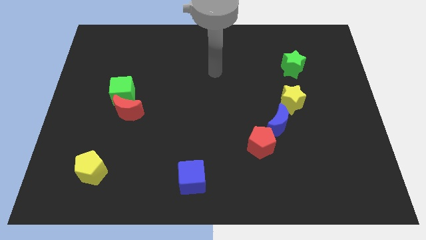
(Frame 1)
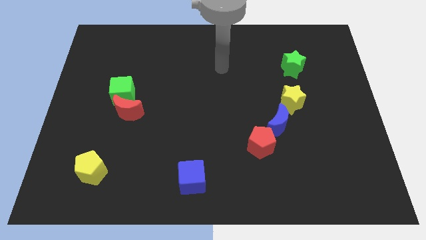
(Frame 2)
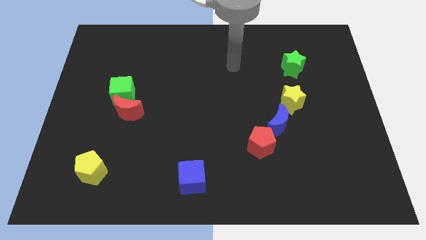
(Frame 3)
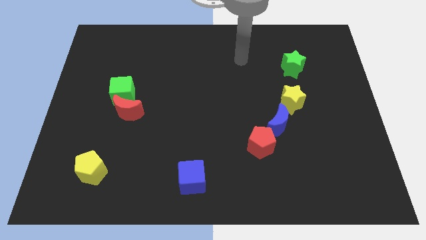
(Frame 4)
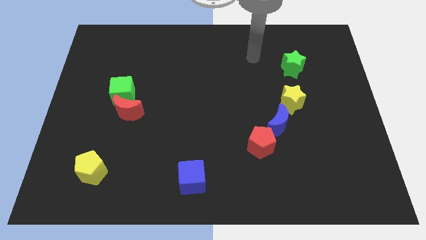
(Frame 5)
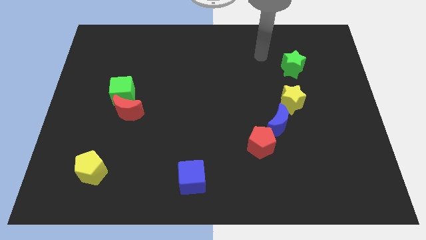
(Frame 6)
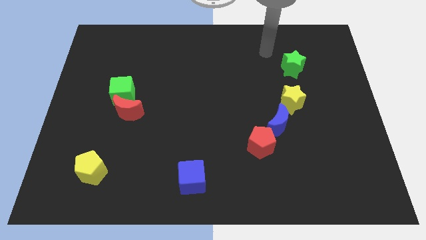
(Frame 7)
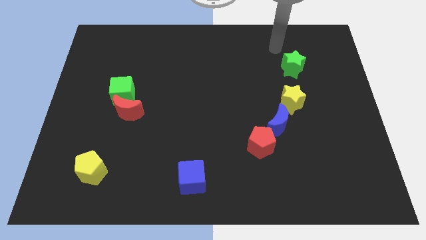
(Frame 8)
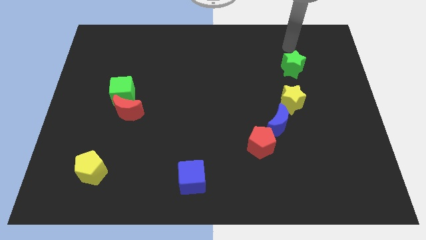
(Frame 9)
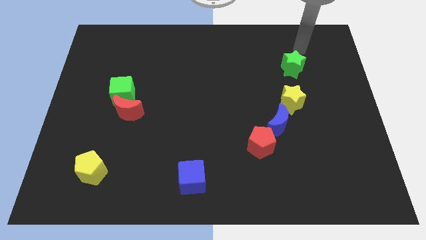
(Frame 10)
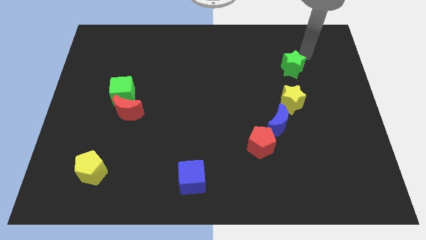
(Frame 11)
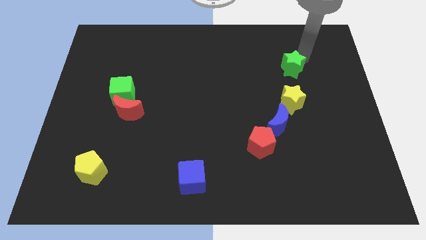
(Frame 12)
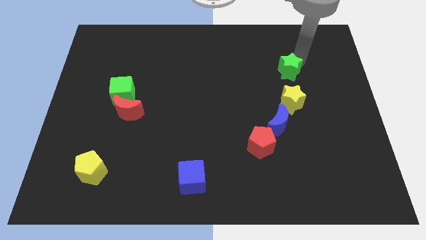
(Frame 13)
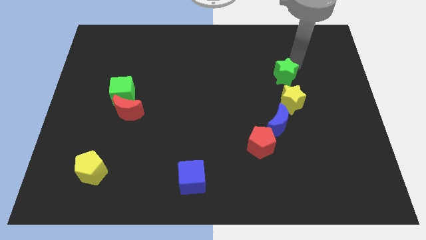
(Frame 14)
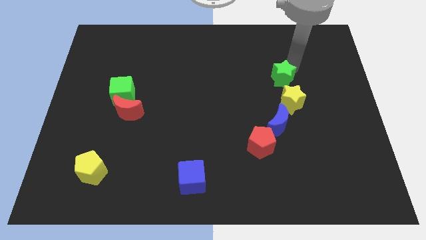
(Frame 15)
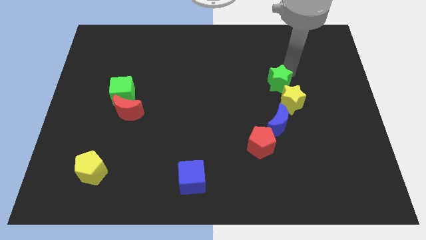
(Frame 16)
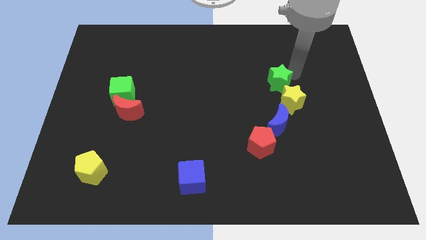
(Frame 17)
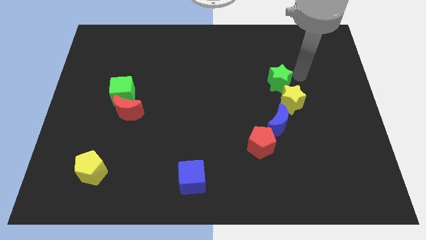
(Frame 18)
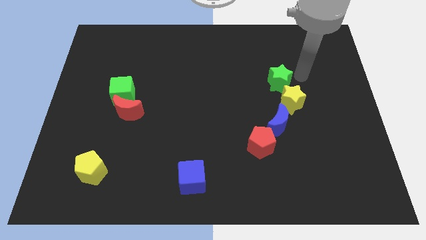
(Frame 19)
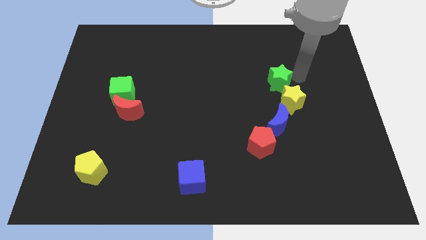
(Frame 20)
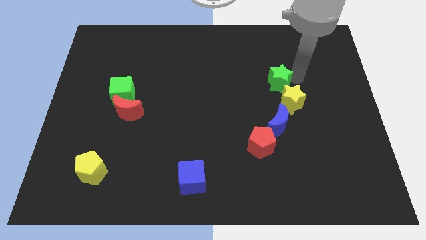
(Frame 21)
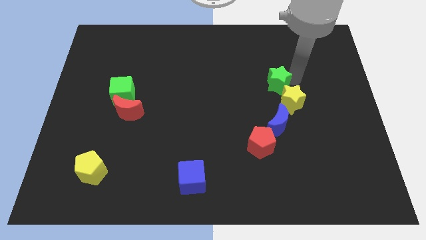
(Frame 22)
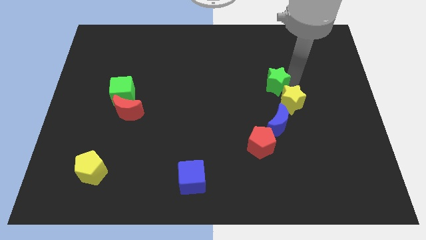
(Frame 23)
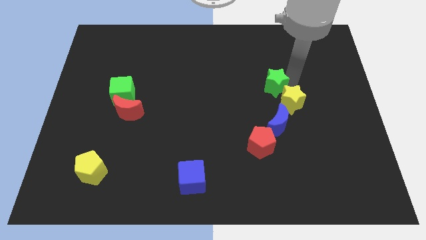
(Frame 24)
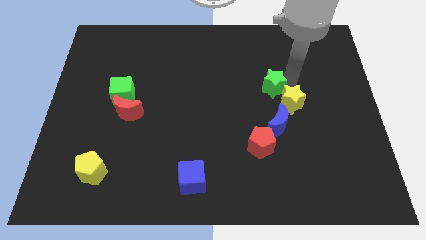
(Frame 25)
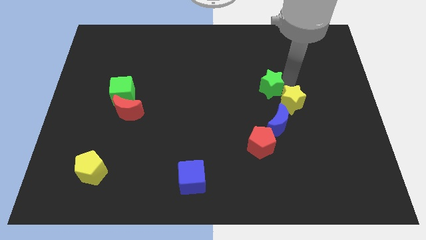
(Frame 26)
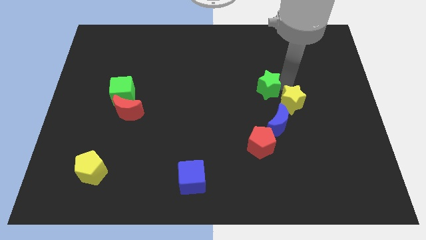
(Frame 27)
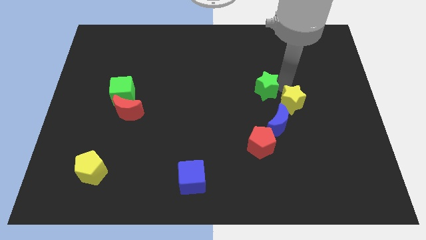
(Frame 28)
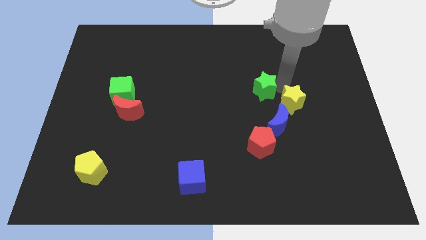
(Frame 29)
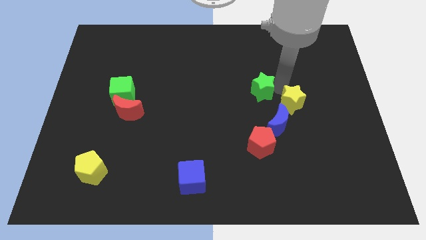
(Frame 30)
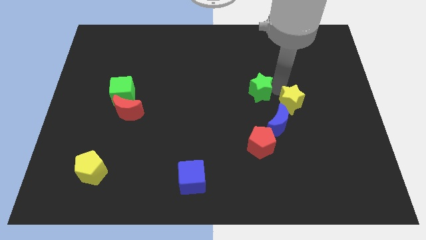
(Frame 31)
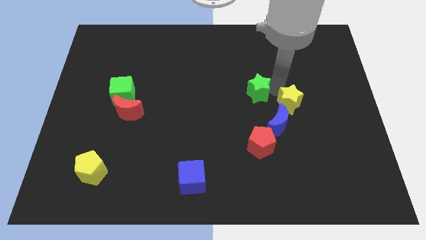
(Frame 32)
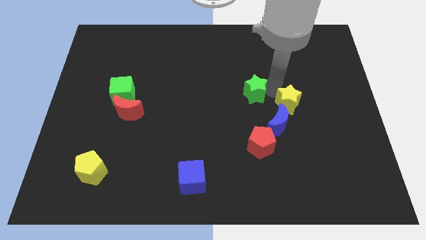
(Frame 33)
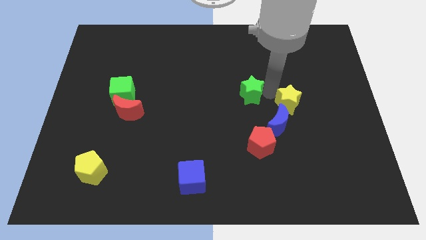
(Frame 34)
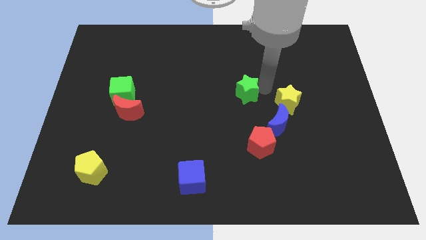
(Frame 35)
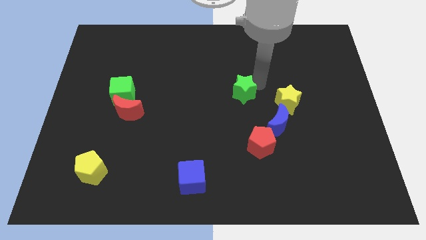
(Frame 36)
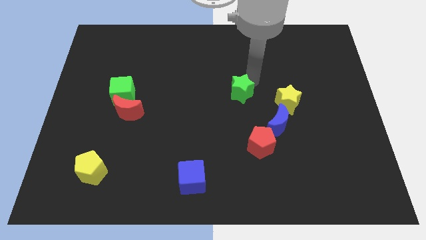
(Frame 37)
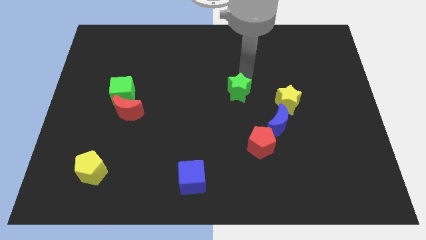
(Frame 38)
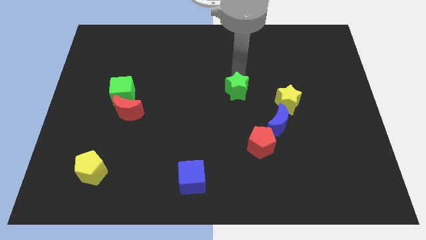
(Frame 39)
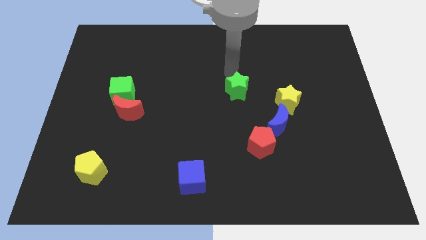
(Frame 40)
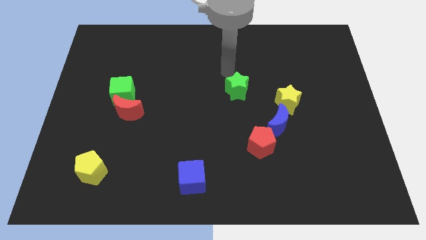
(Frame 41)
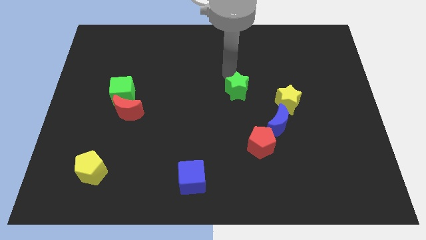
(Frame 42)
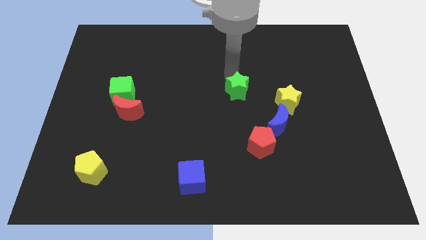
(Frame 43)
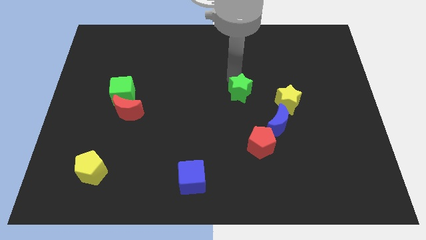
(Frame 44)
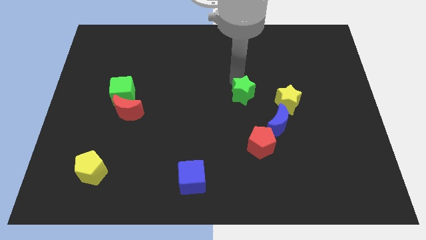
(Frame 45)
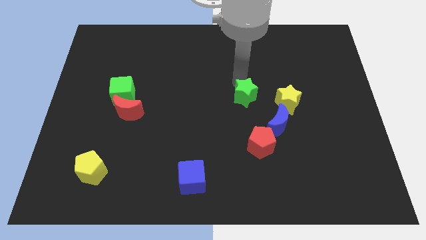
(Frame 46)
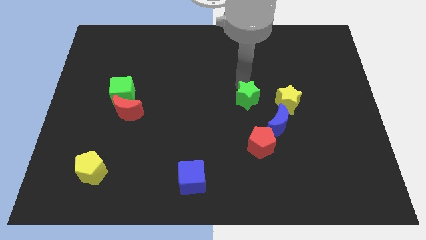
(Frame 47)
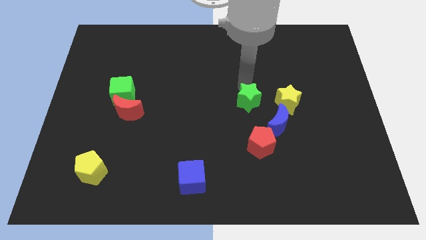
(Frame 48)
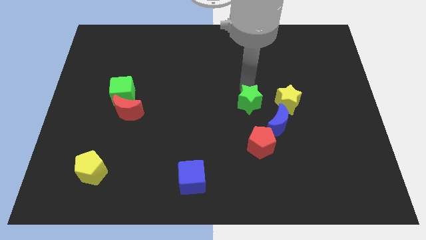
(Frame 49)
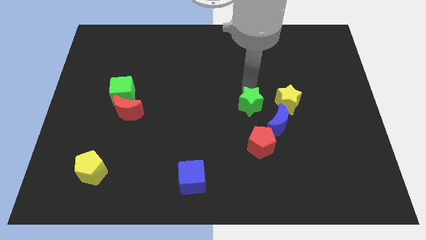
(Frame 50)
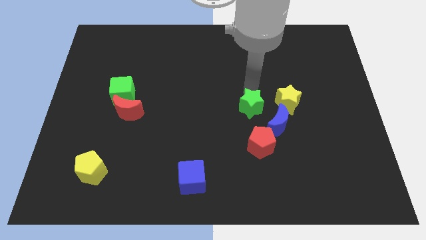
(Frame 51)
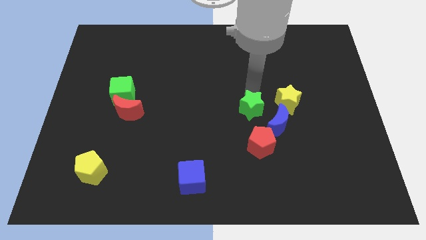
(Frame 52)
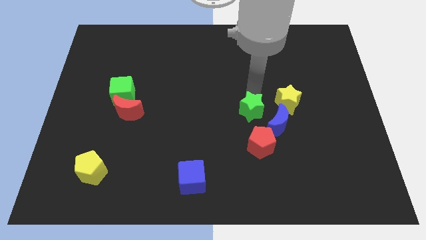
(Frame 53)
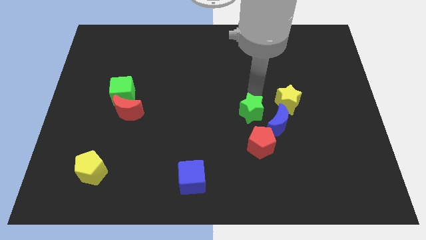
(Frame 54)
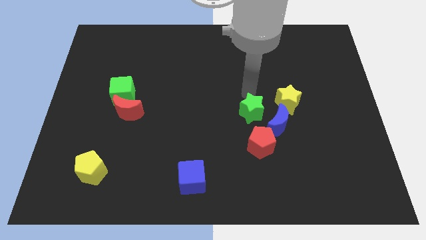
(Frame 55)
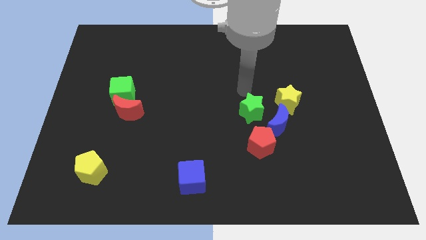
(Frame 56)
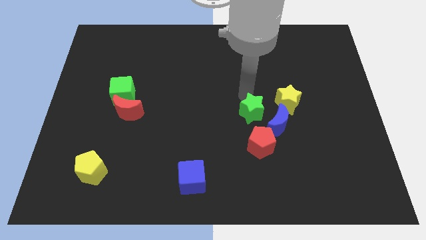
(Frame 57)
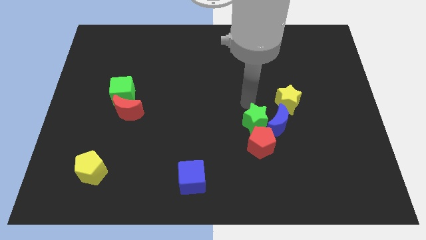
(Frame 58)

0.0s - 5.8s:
move the green star to the red pentagon

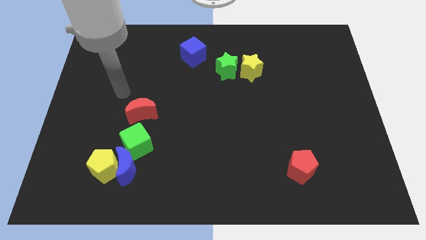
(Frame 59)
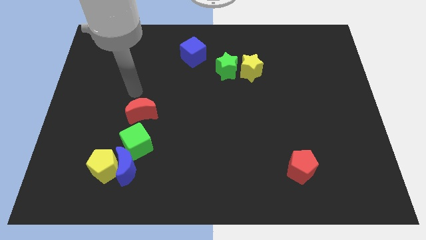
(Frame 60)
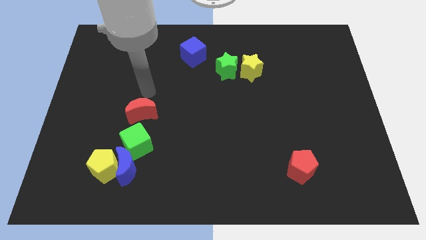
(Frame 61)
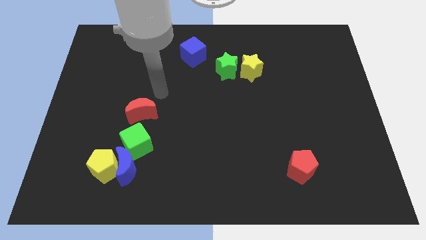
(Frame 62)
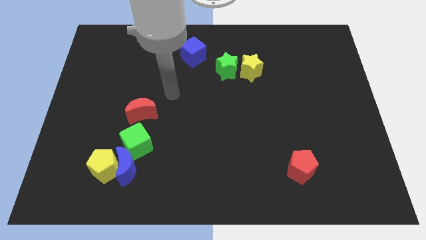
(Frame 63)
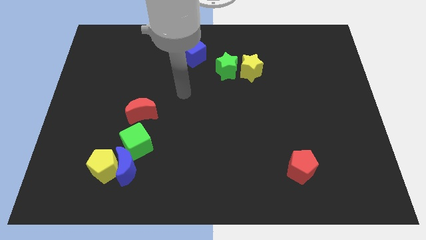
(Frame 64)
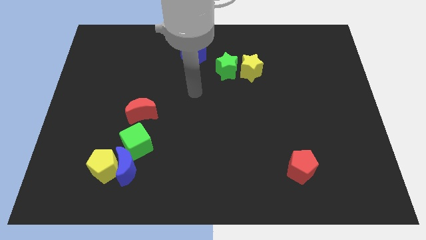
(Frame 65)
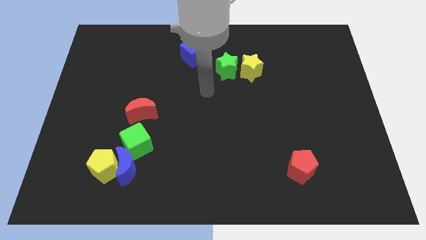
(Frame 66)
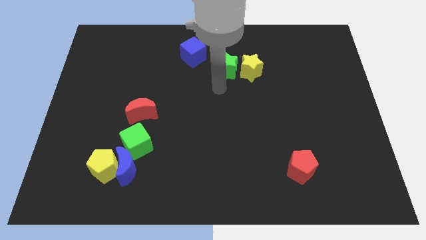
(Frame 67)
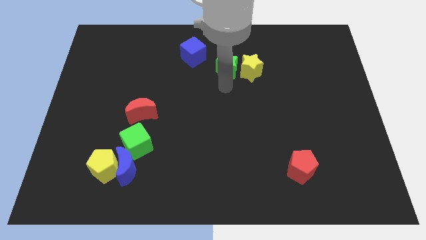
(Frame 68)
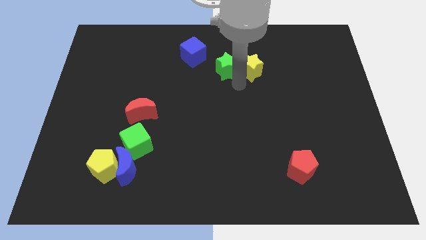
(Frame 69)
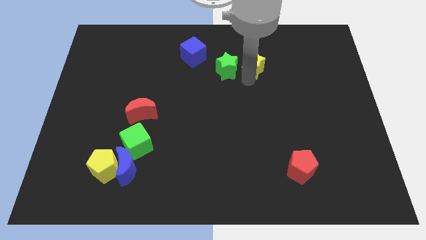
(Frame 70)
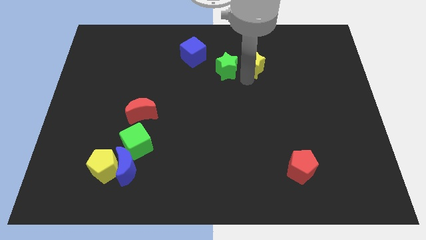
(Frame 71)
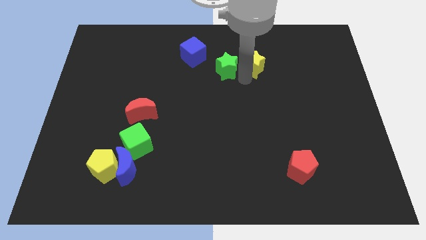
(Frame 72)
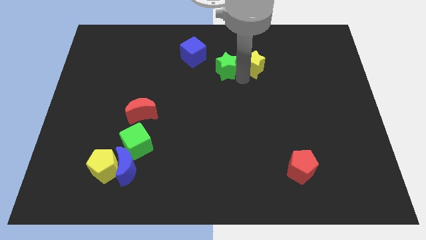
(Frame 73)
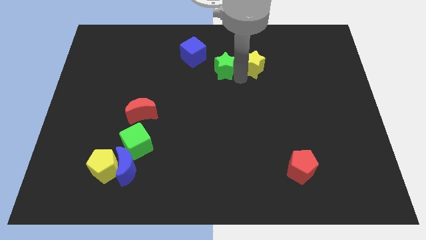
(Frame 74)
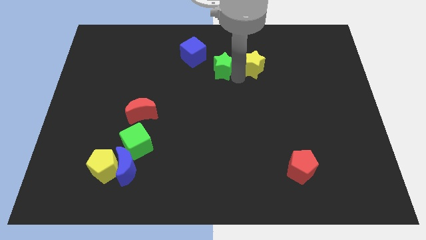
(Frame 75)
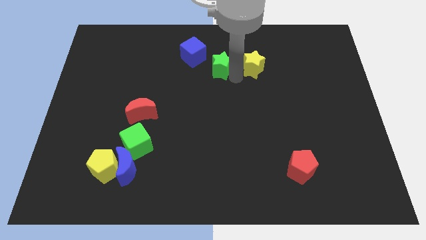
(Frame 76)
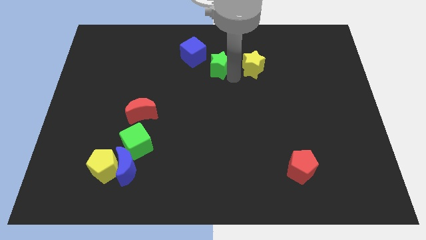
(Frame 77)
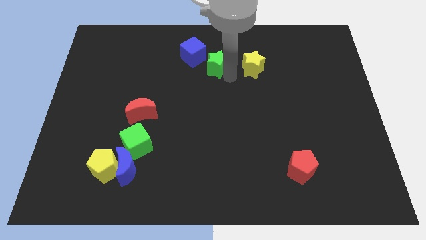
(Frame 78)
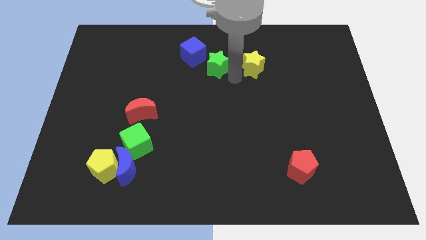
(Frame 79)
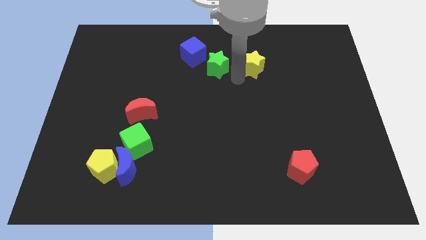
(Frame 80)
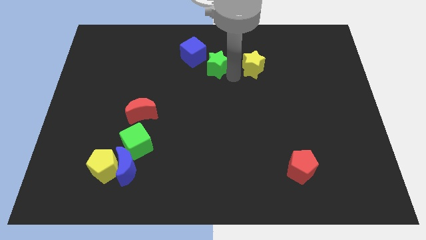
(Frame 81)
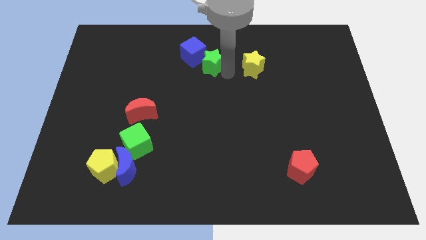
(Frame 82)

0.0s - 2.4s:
put the green star next to the blue cube
